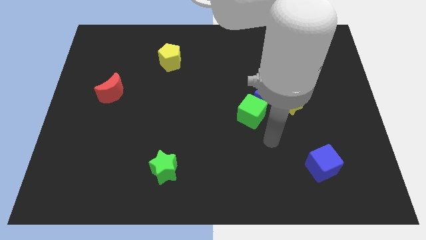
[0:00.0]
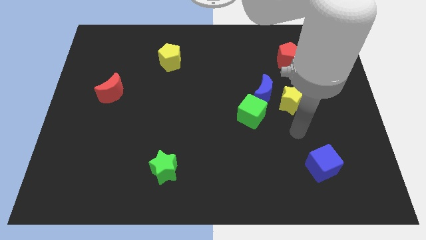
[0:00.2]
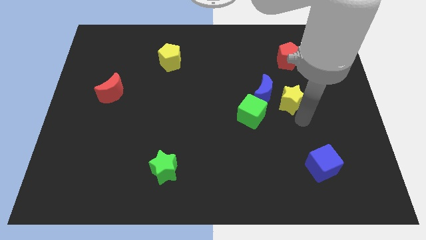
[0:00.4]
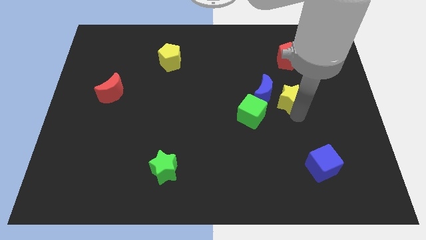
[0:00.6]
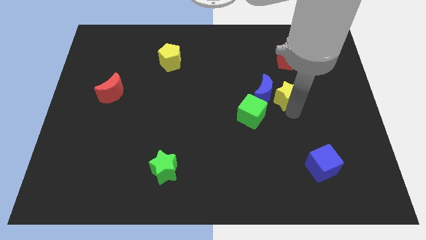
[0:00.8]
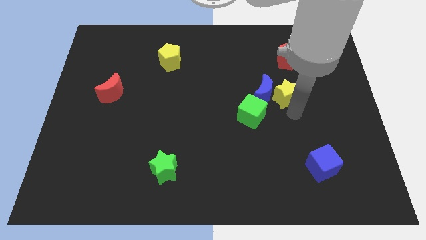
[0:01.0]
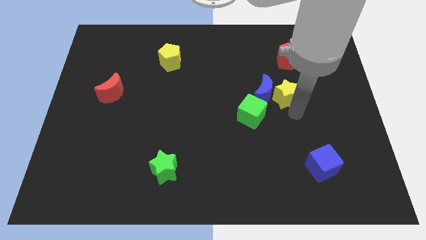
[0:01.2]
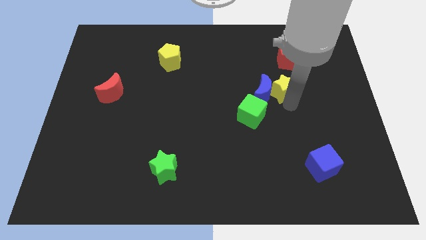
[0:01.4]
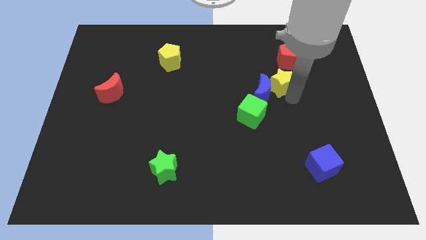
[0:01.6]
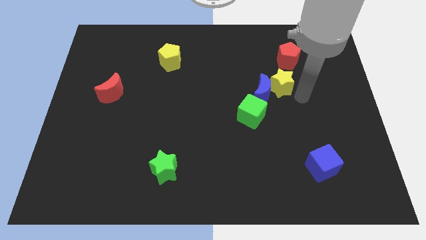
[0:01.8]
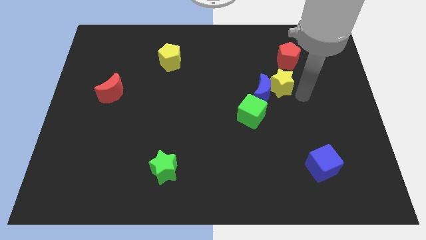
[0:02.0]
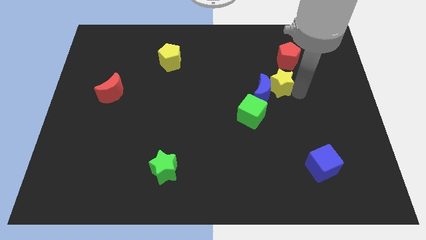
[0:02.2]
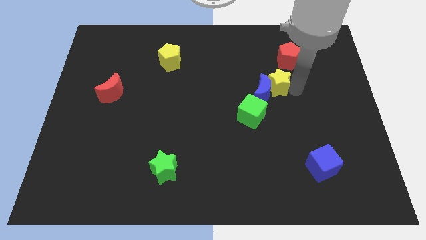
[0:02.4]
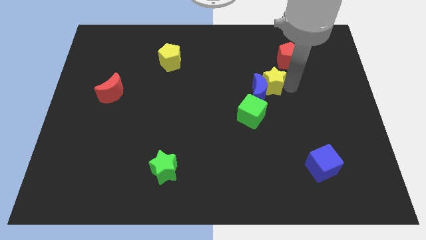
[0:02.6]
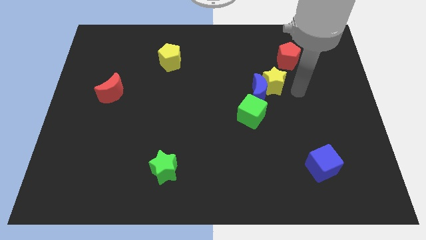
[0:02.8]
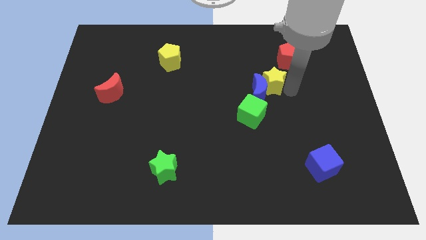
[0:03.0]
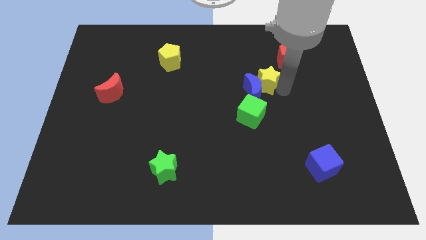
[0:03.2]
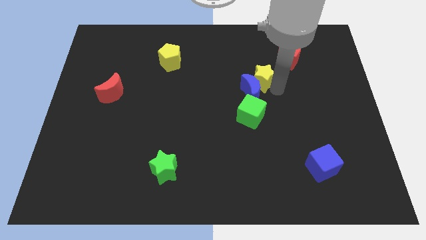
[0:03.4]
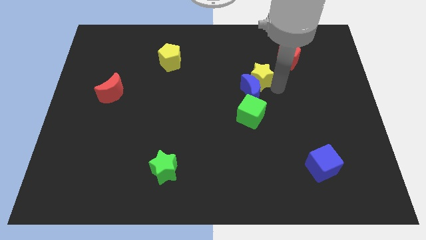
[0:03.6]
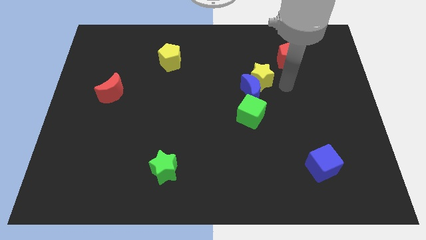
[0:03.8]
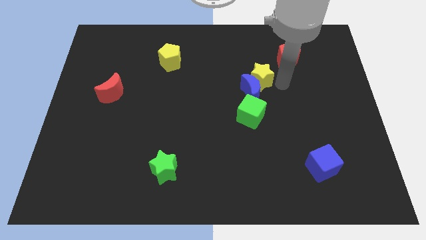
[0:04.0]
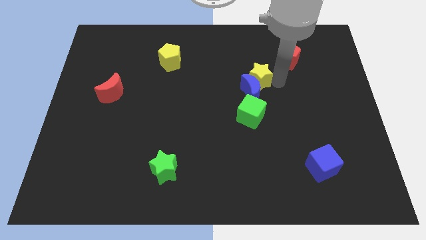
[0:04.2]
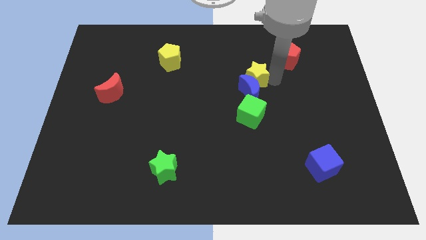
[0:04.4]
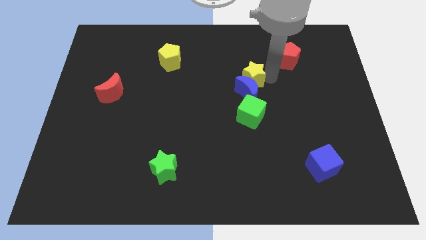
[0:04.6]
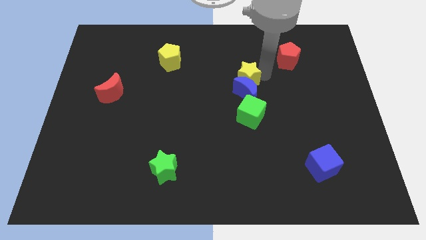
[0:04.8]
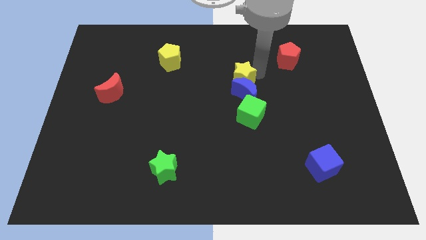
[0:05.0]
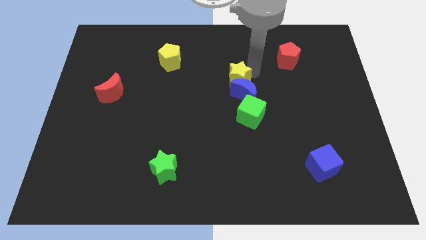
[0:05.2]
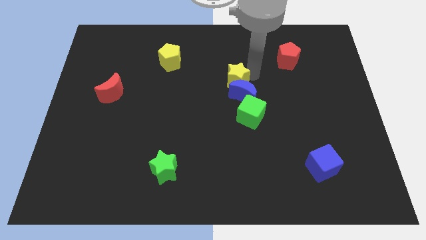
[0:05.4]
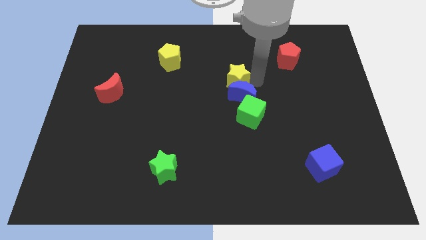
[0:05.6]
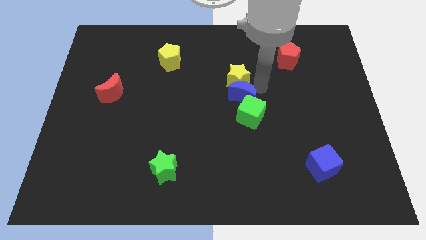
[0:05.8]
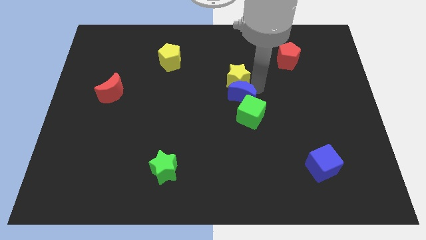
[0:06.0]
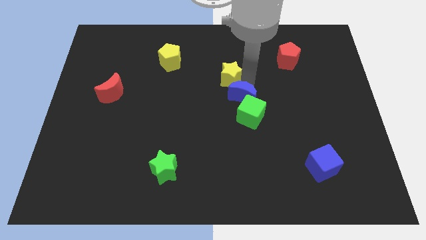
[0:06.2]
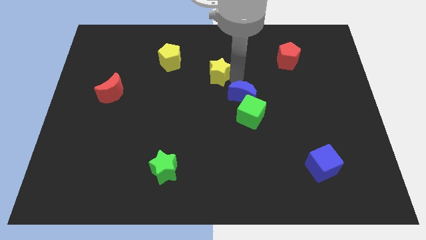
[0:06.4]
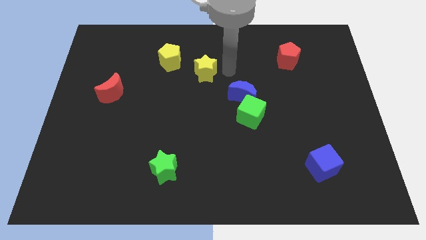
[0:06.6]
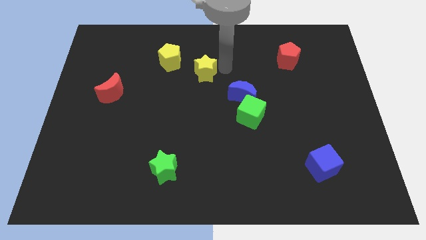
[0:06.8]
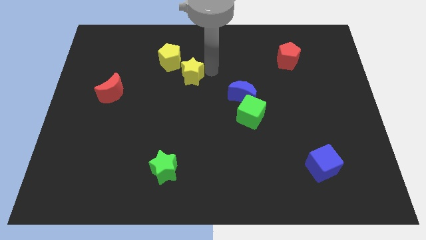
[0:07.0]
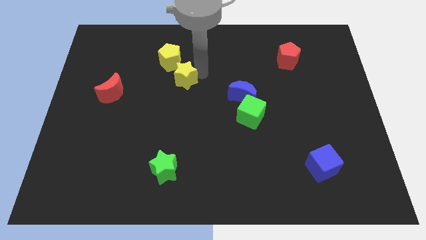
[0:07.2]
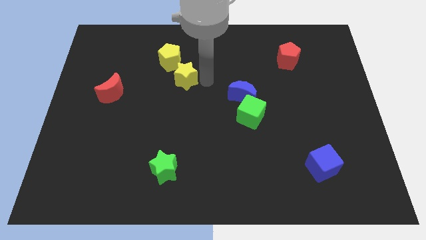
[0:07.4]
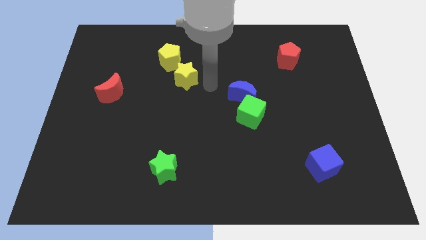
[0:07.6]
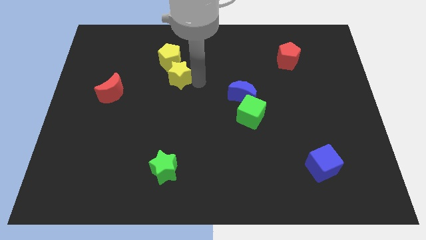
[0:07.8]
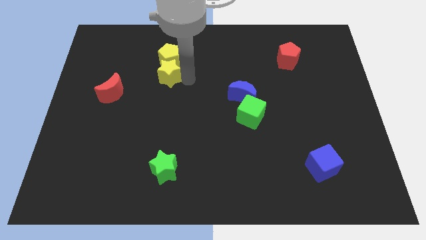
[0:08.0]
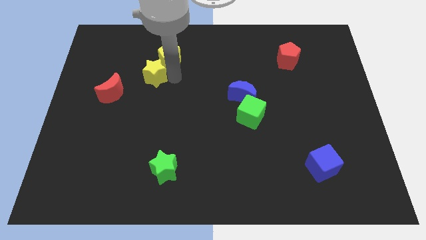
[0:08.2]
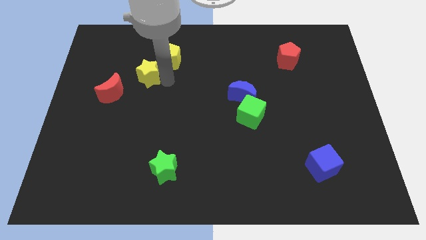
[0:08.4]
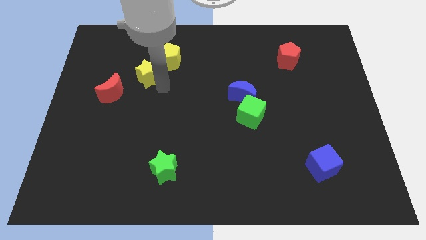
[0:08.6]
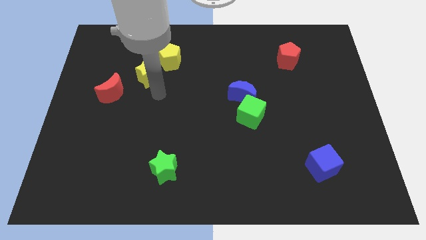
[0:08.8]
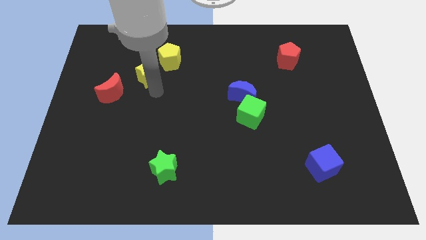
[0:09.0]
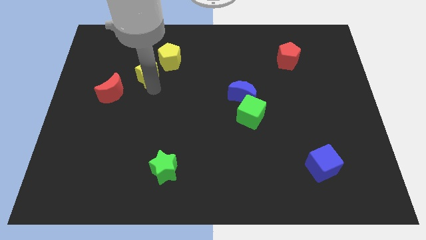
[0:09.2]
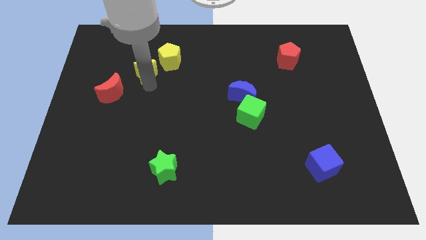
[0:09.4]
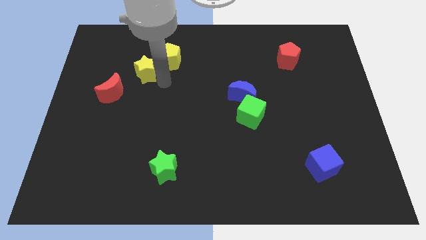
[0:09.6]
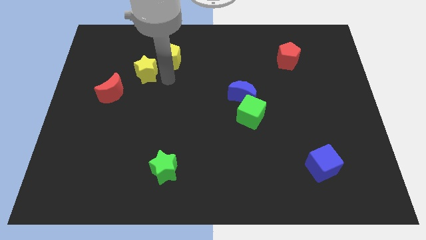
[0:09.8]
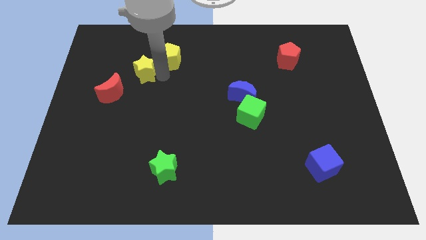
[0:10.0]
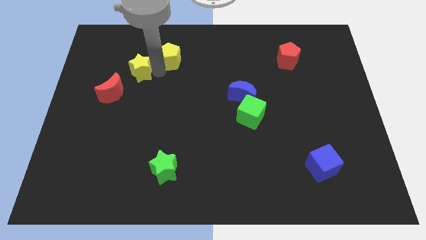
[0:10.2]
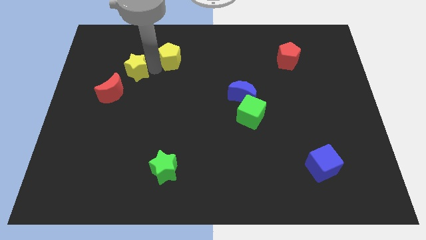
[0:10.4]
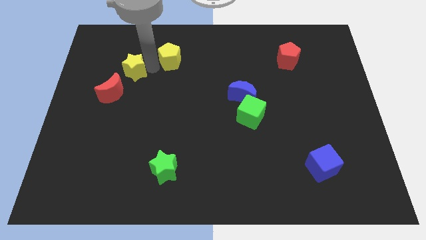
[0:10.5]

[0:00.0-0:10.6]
slide the yellow star above the red moon

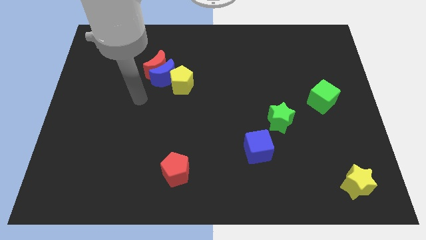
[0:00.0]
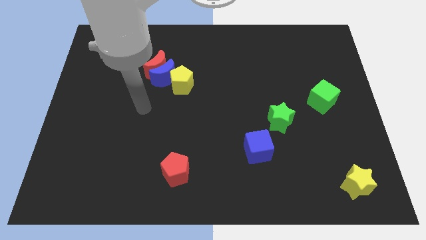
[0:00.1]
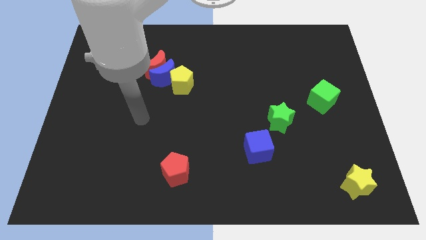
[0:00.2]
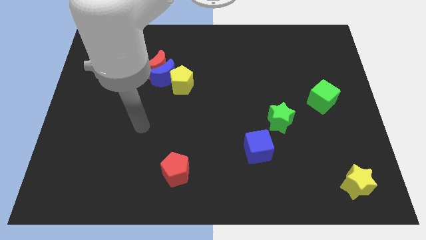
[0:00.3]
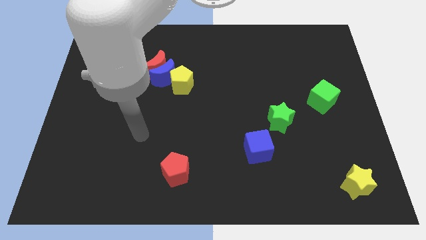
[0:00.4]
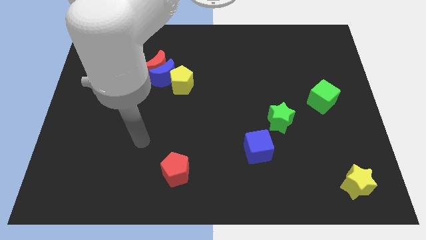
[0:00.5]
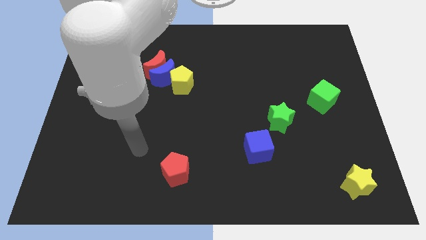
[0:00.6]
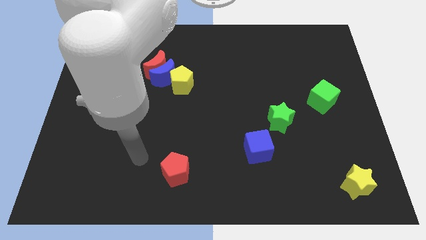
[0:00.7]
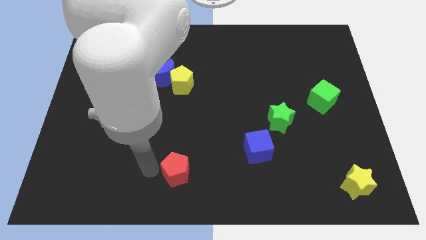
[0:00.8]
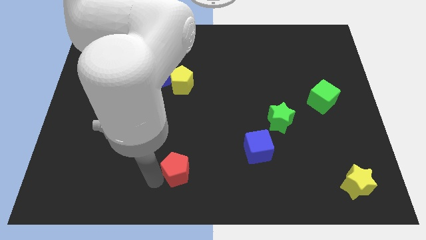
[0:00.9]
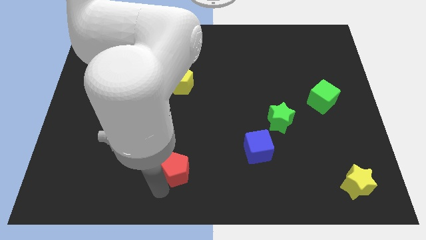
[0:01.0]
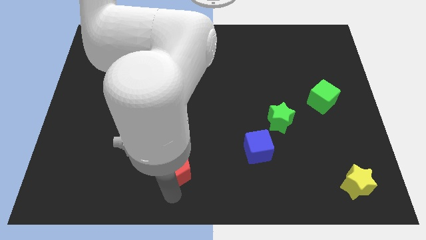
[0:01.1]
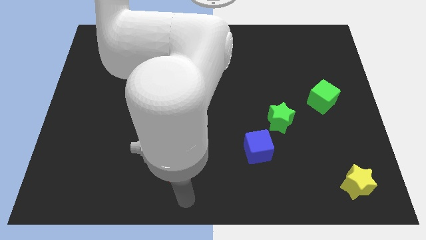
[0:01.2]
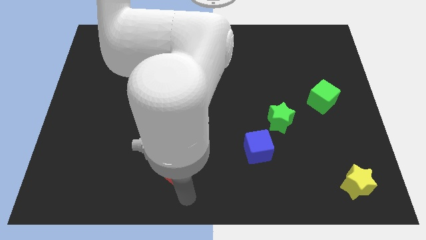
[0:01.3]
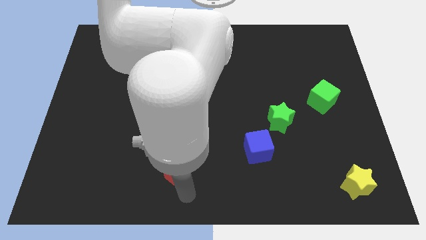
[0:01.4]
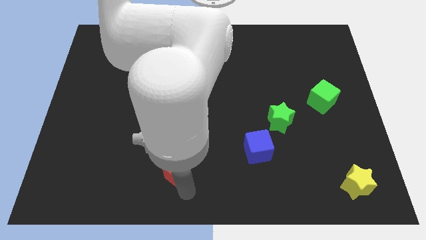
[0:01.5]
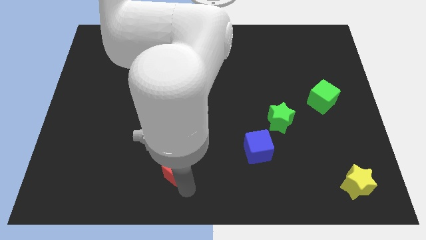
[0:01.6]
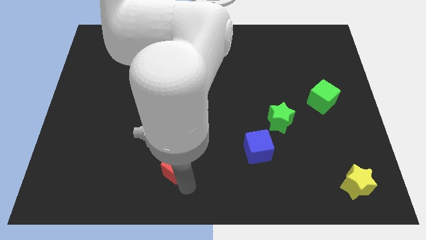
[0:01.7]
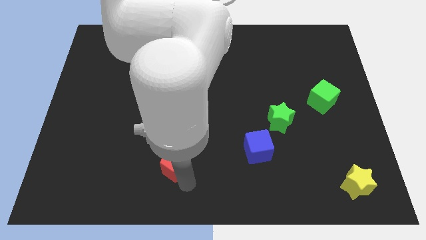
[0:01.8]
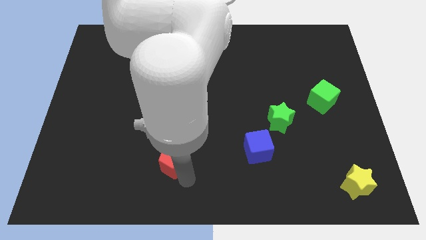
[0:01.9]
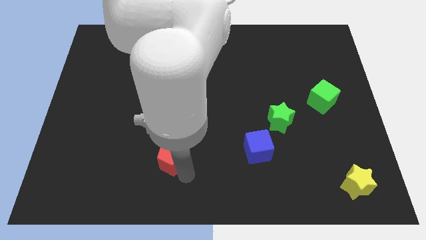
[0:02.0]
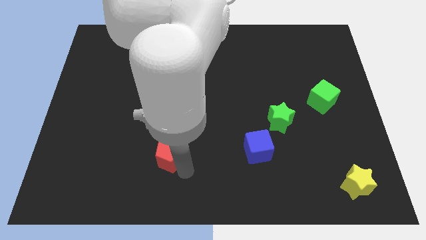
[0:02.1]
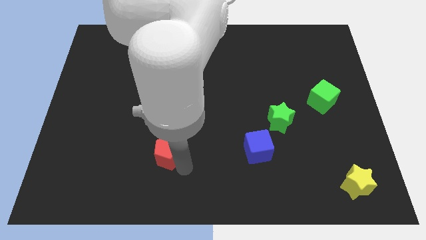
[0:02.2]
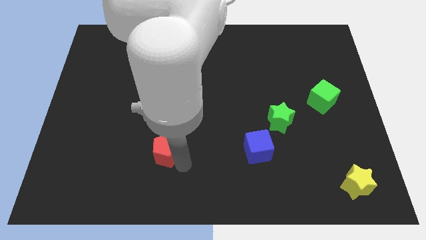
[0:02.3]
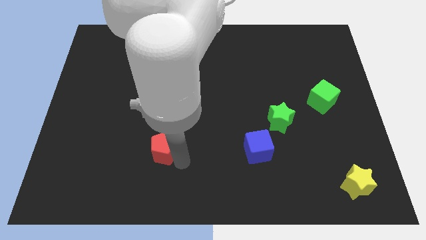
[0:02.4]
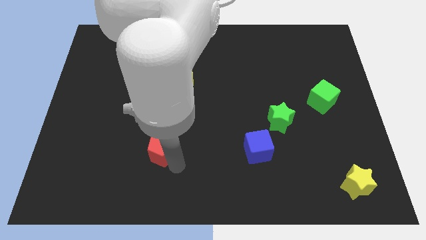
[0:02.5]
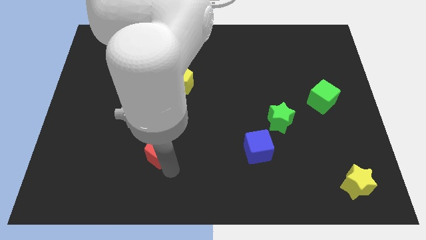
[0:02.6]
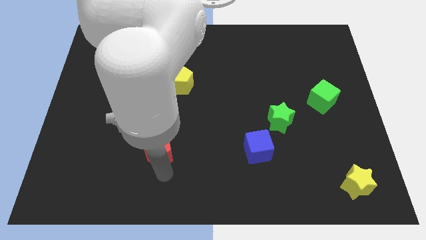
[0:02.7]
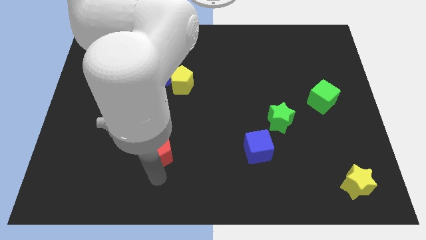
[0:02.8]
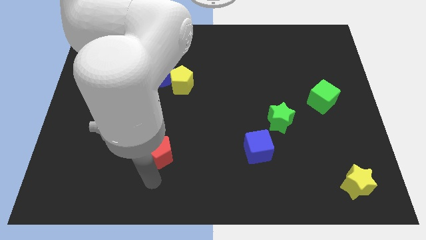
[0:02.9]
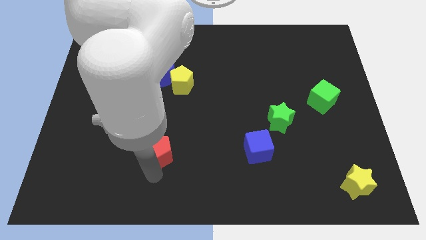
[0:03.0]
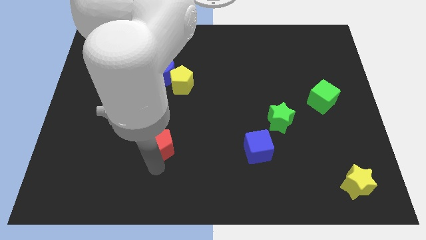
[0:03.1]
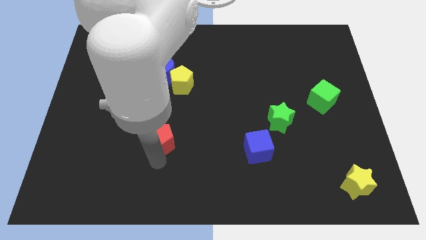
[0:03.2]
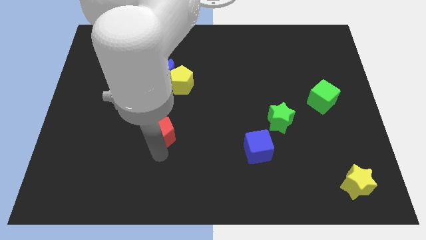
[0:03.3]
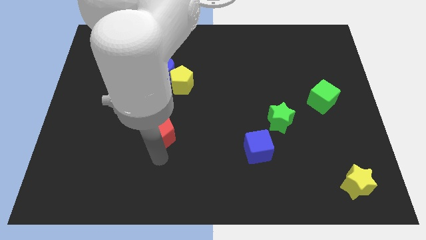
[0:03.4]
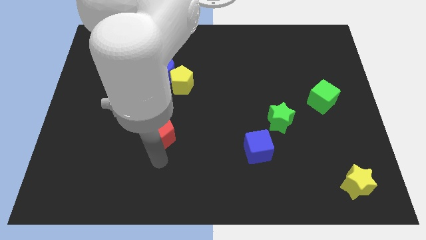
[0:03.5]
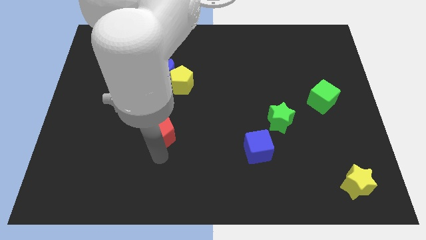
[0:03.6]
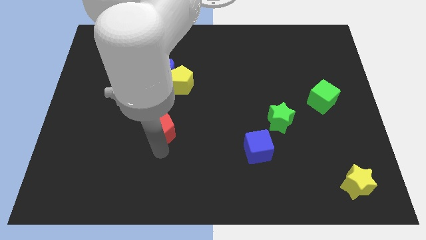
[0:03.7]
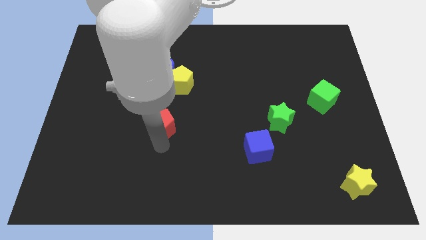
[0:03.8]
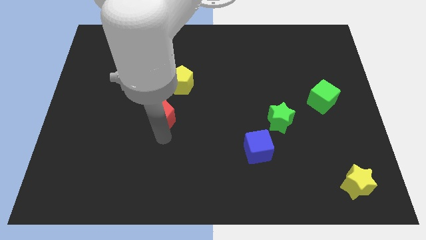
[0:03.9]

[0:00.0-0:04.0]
push the red pentagon to the bottom side of the red moon
